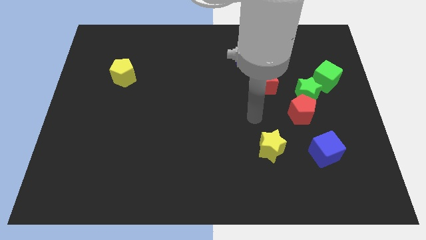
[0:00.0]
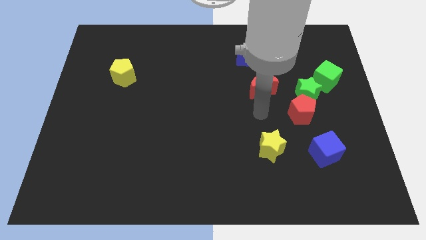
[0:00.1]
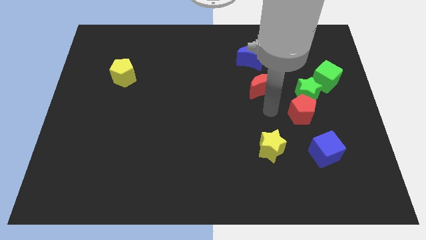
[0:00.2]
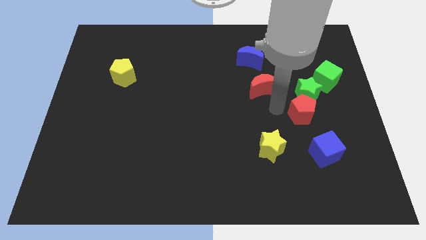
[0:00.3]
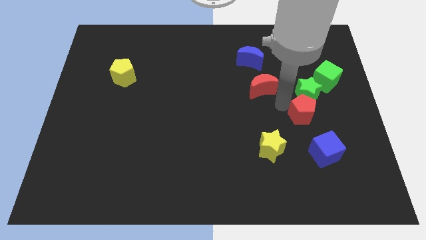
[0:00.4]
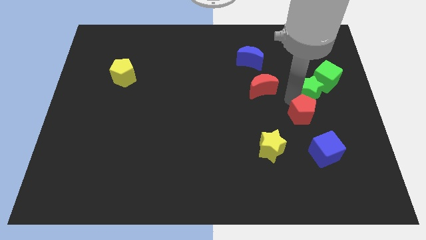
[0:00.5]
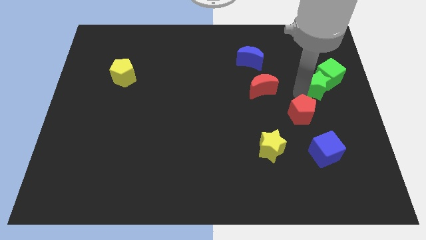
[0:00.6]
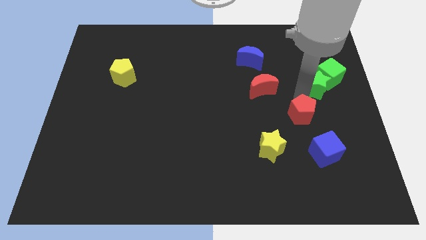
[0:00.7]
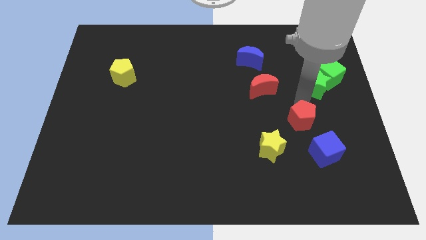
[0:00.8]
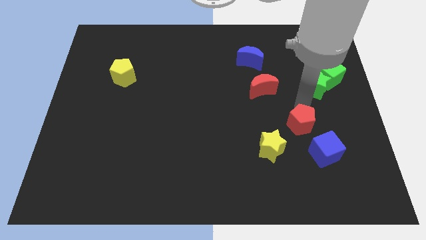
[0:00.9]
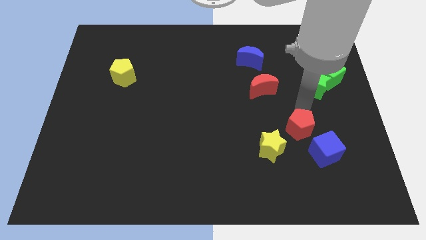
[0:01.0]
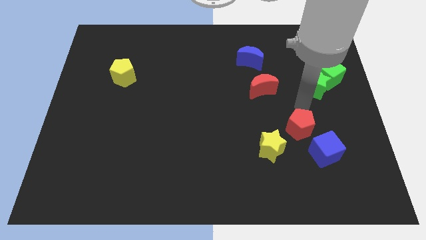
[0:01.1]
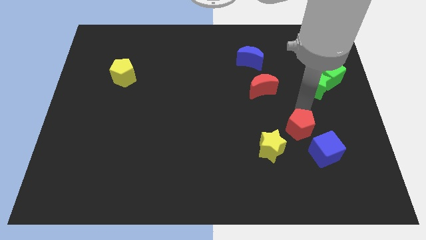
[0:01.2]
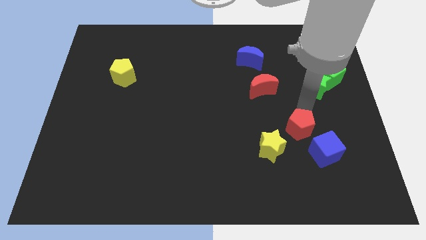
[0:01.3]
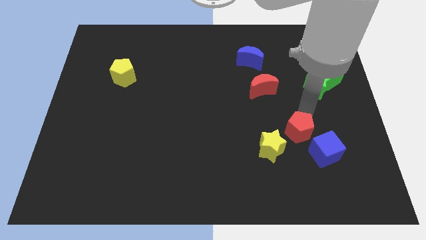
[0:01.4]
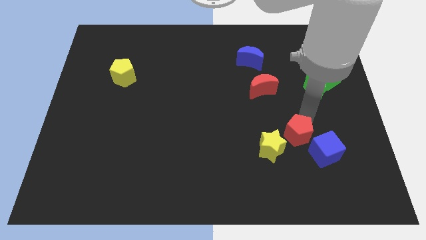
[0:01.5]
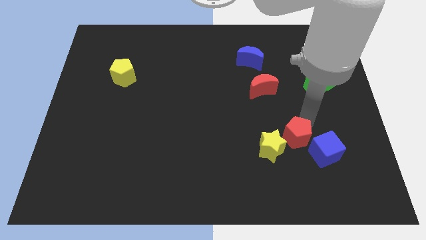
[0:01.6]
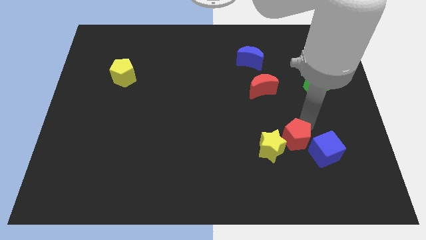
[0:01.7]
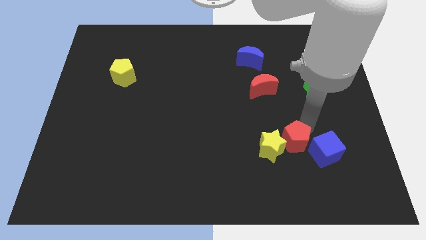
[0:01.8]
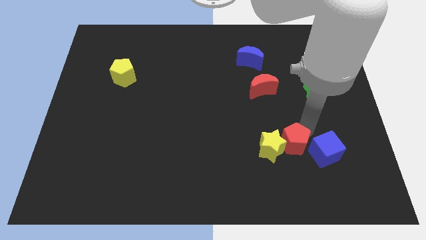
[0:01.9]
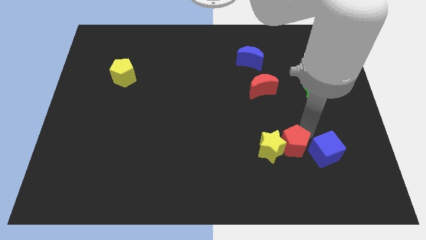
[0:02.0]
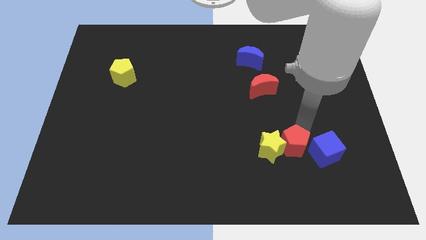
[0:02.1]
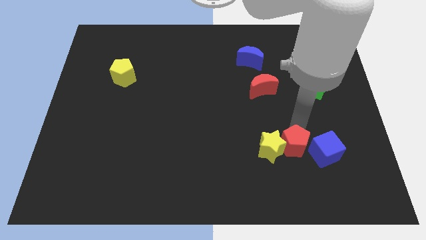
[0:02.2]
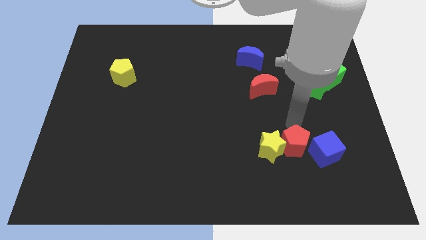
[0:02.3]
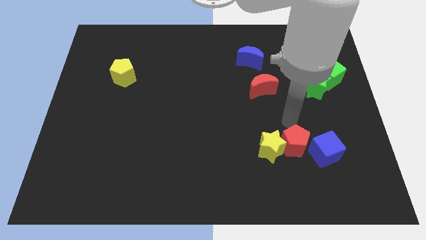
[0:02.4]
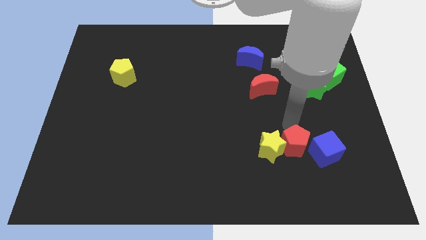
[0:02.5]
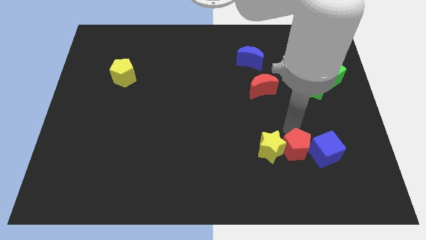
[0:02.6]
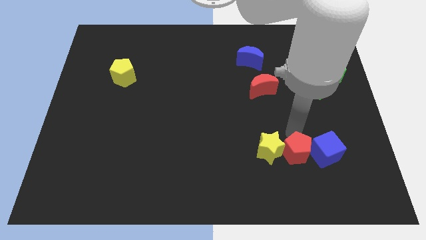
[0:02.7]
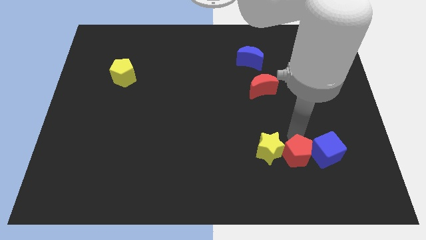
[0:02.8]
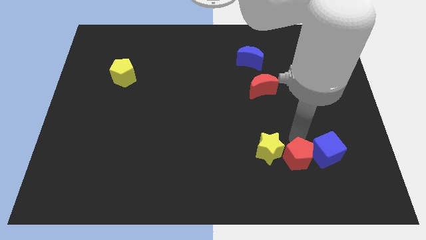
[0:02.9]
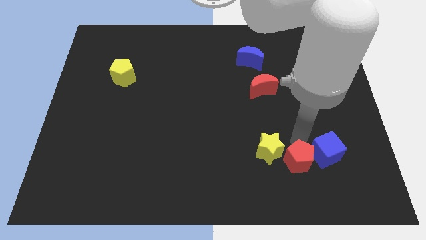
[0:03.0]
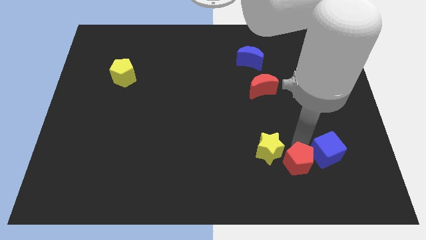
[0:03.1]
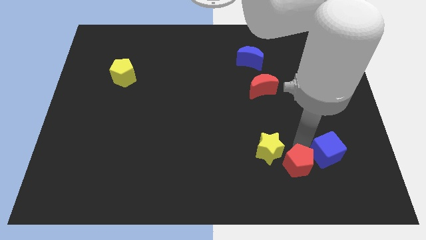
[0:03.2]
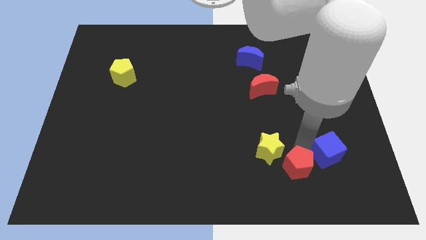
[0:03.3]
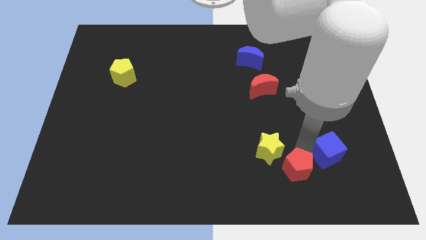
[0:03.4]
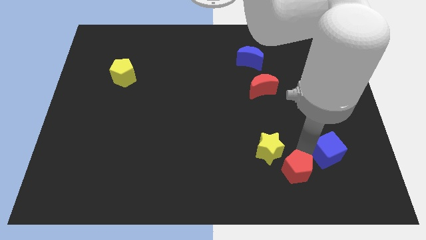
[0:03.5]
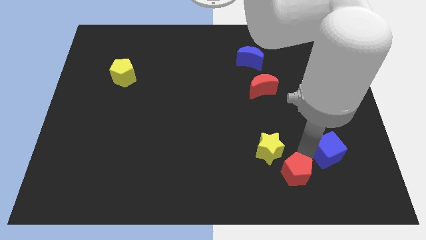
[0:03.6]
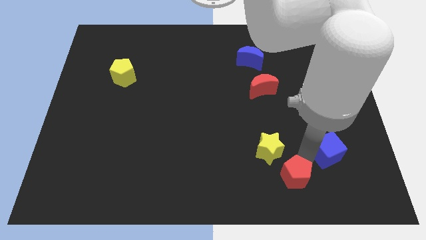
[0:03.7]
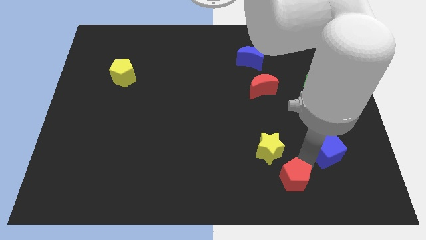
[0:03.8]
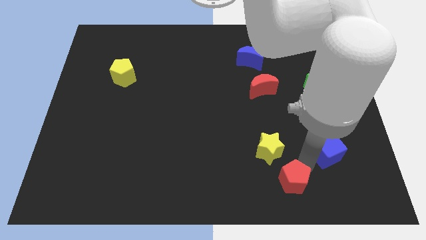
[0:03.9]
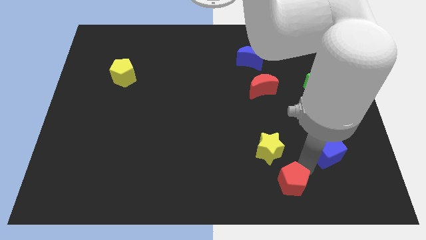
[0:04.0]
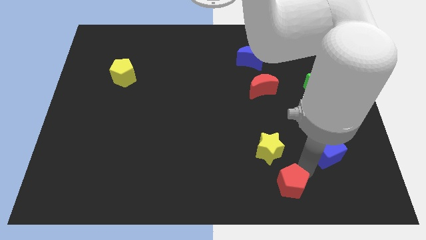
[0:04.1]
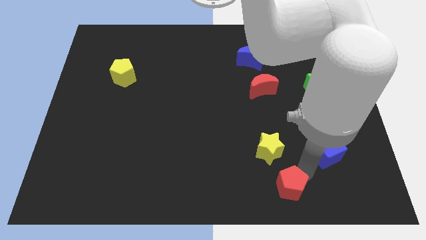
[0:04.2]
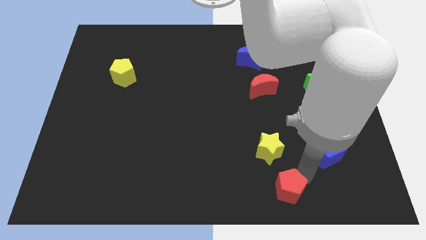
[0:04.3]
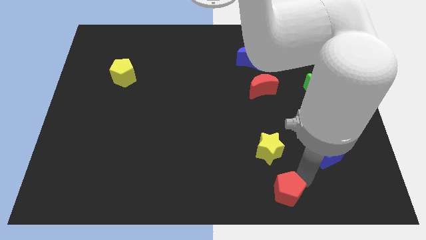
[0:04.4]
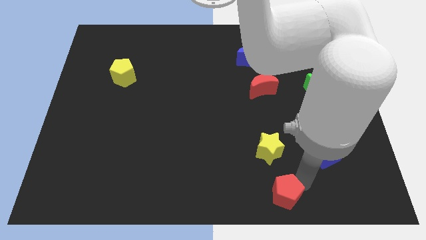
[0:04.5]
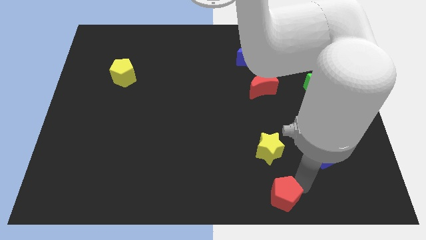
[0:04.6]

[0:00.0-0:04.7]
move the red pentagon to the bottom

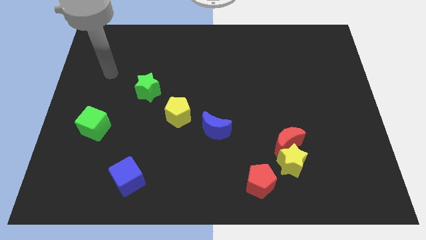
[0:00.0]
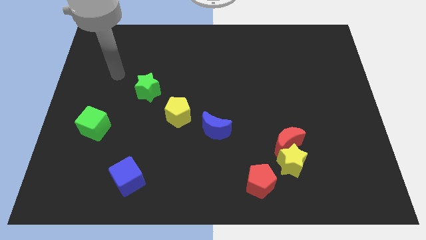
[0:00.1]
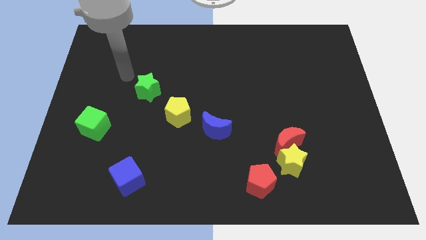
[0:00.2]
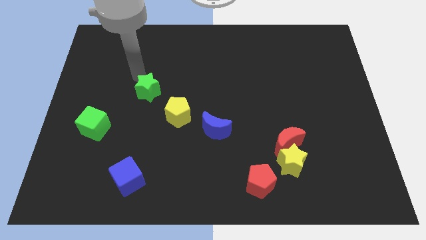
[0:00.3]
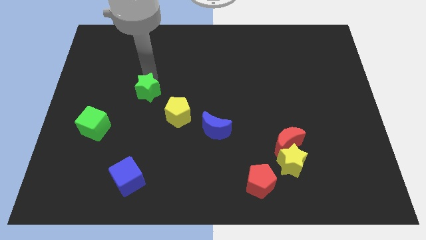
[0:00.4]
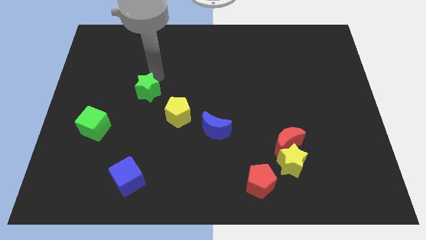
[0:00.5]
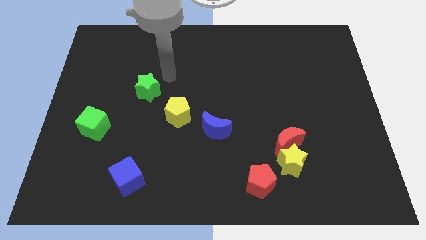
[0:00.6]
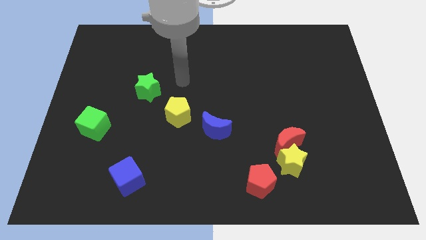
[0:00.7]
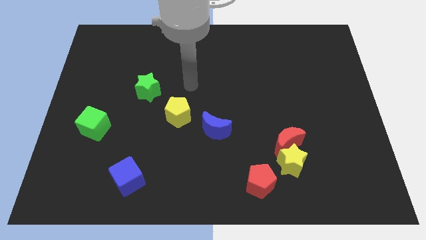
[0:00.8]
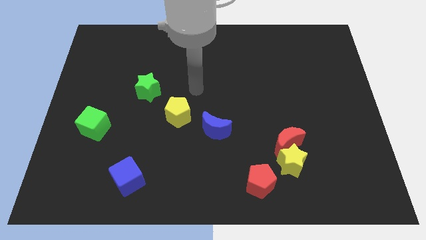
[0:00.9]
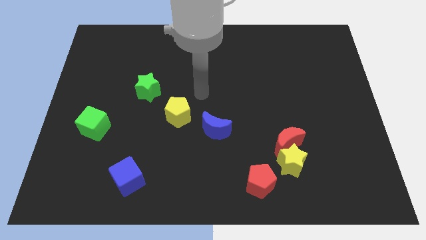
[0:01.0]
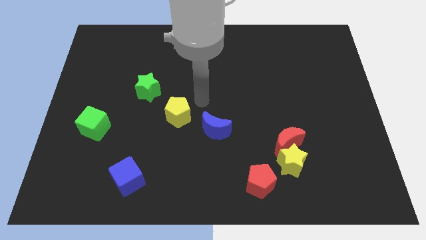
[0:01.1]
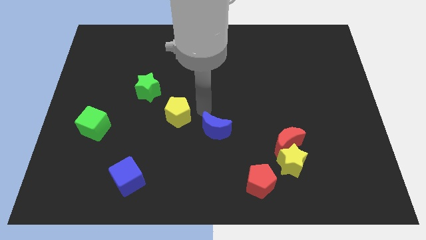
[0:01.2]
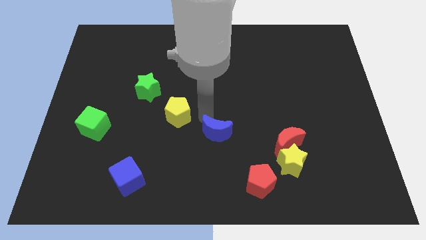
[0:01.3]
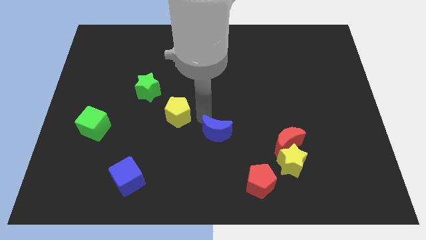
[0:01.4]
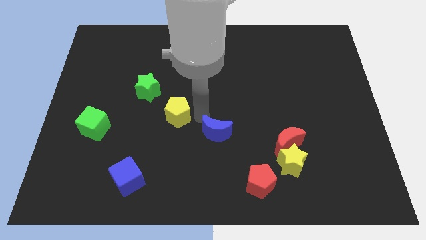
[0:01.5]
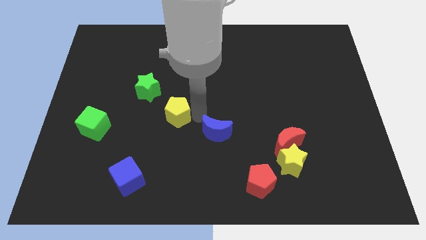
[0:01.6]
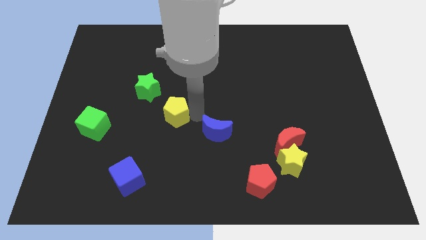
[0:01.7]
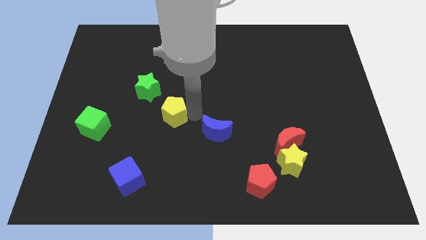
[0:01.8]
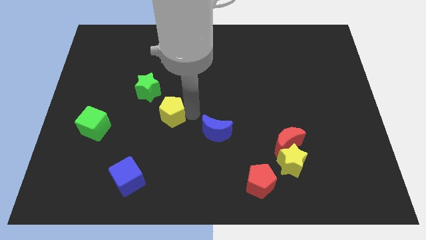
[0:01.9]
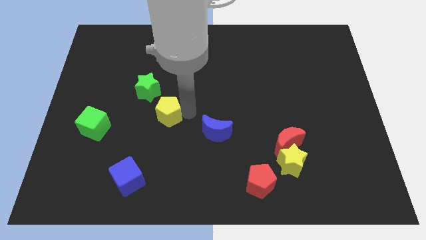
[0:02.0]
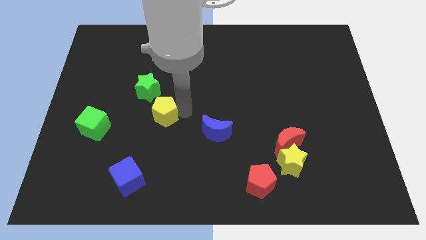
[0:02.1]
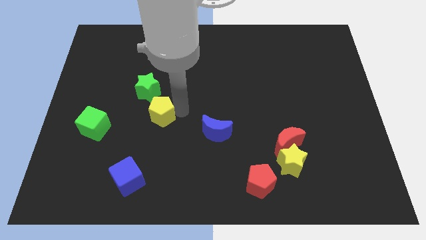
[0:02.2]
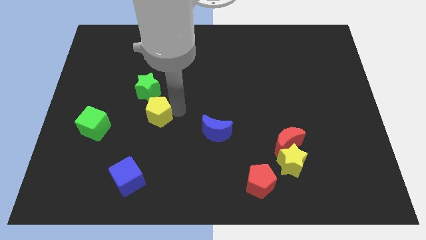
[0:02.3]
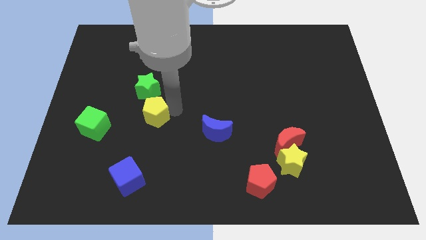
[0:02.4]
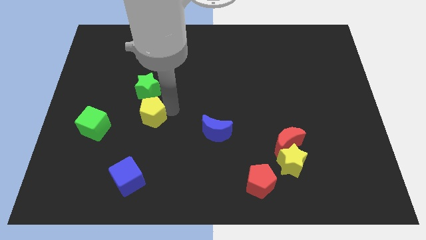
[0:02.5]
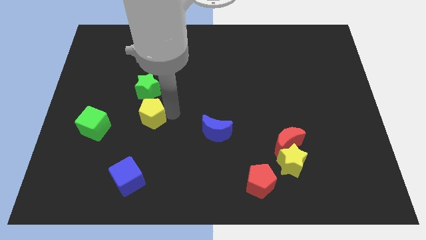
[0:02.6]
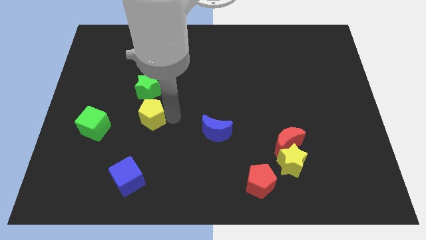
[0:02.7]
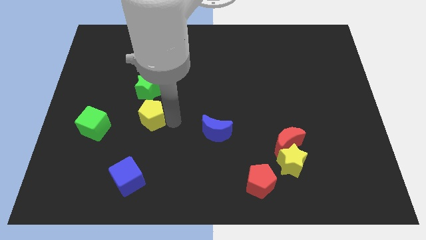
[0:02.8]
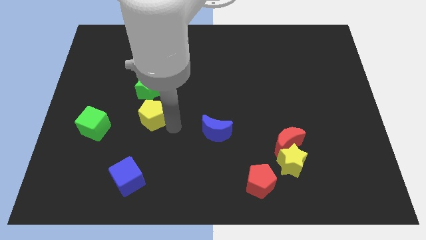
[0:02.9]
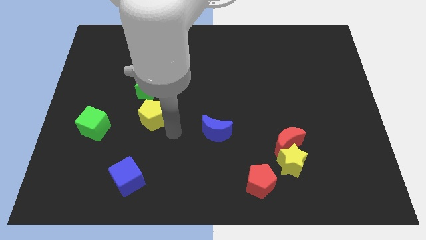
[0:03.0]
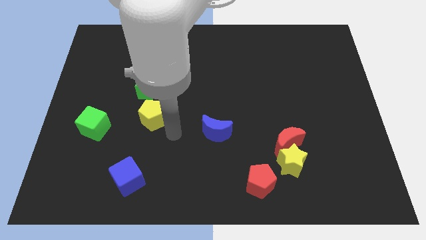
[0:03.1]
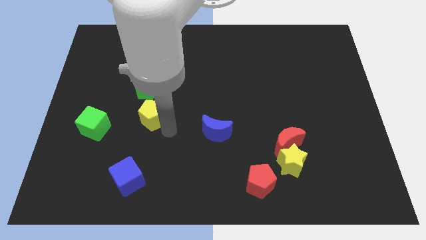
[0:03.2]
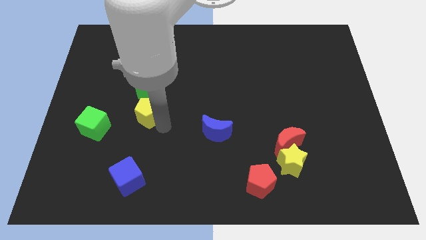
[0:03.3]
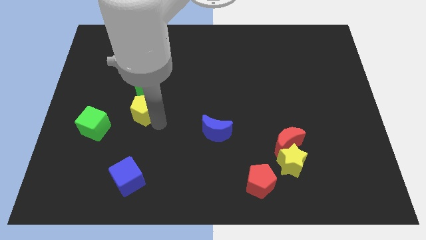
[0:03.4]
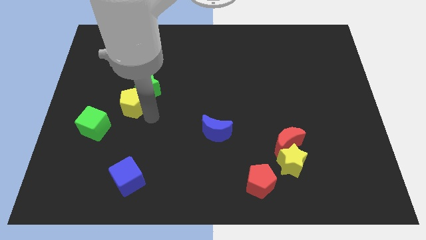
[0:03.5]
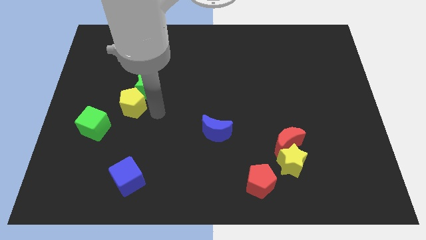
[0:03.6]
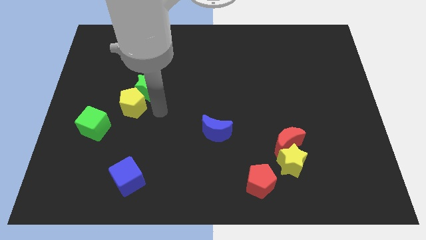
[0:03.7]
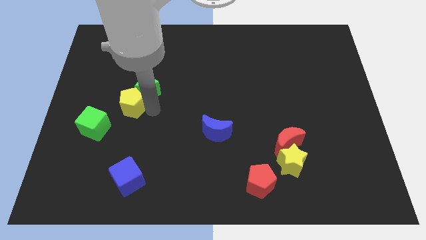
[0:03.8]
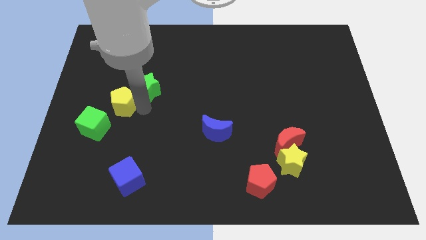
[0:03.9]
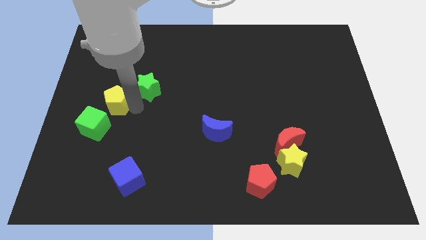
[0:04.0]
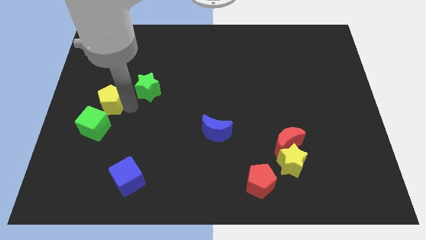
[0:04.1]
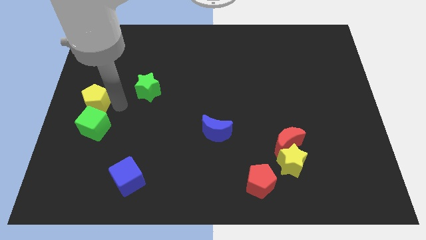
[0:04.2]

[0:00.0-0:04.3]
slide the yellow pentagon to the left side
